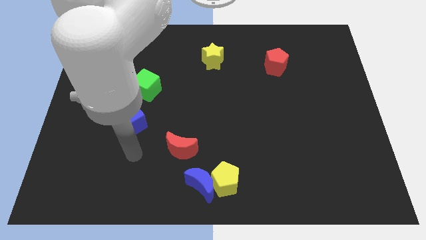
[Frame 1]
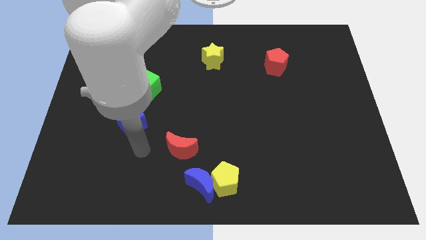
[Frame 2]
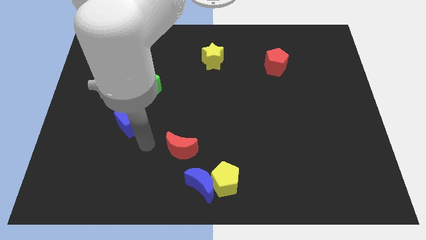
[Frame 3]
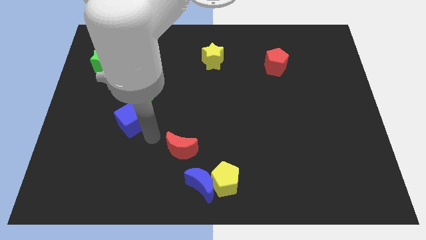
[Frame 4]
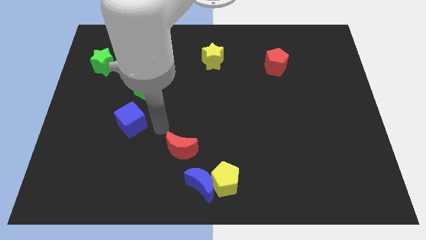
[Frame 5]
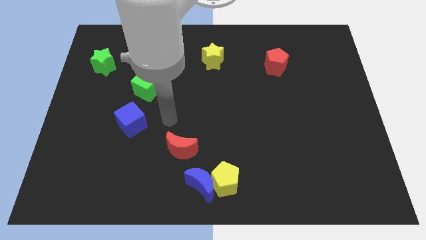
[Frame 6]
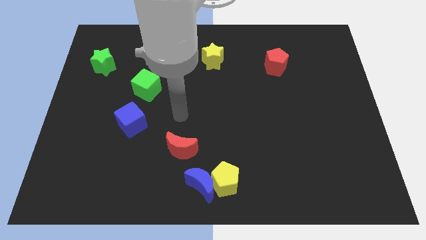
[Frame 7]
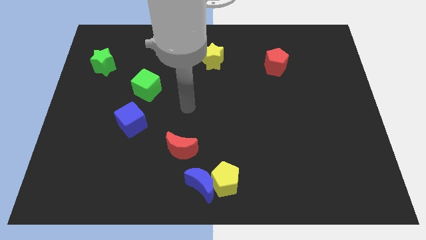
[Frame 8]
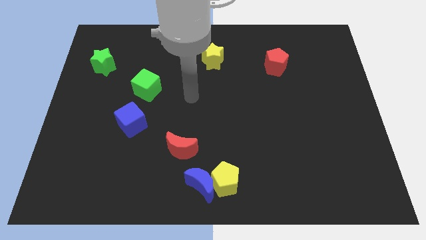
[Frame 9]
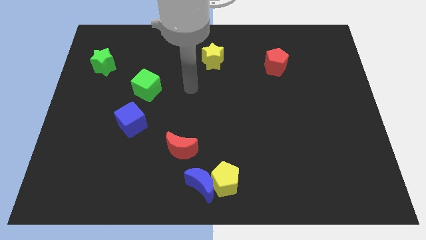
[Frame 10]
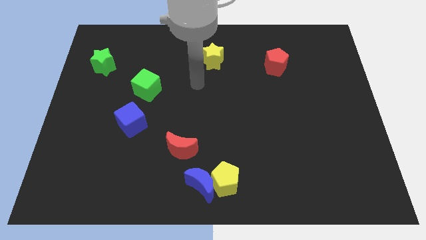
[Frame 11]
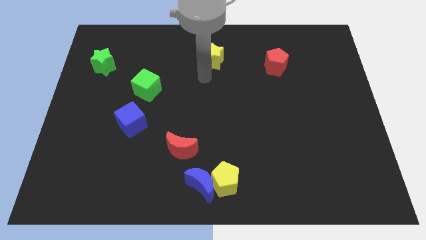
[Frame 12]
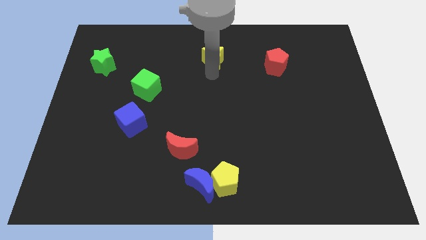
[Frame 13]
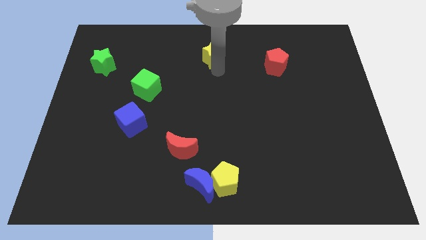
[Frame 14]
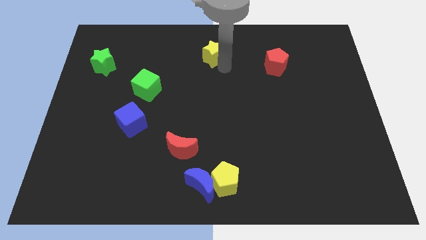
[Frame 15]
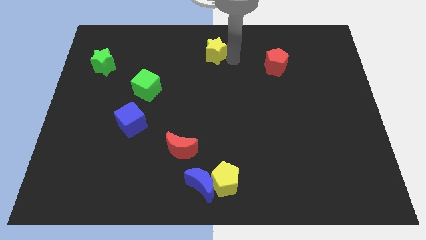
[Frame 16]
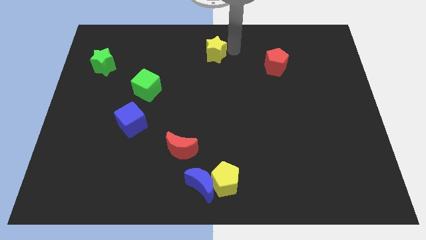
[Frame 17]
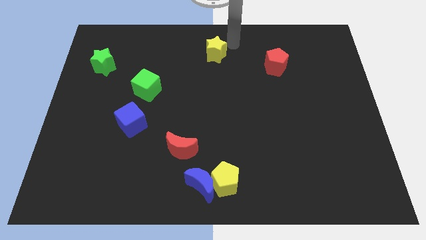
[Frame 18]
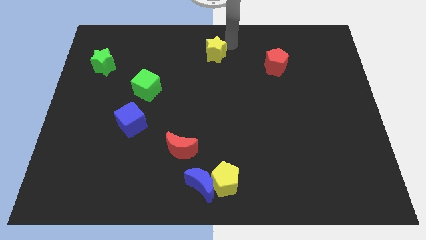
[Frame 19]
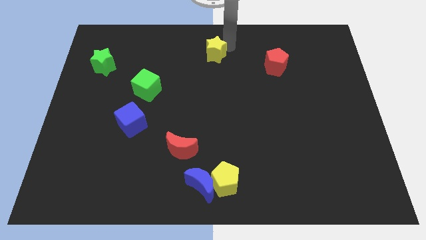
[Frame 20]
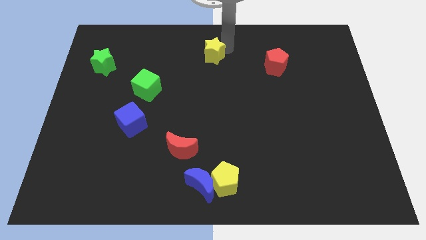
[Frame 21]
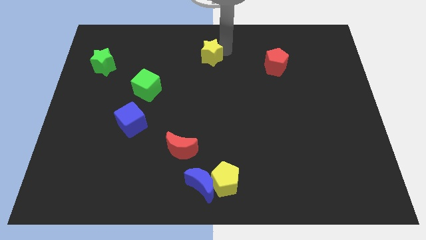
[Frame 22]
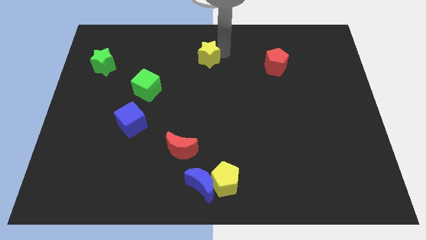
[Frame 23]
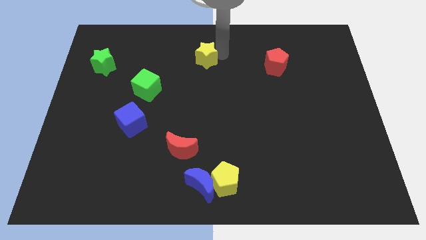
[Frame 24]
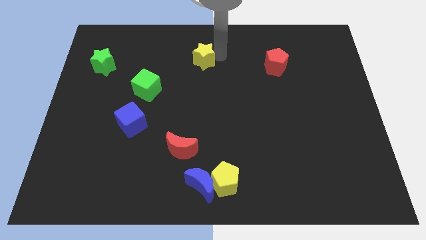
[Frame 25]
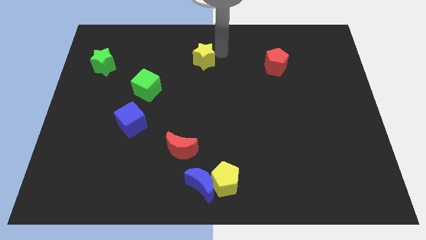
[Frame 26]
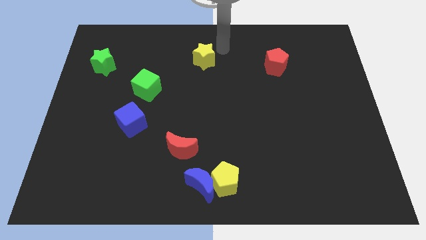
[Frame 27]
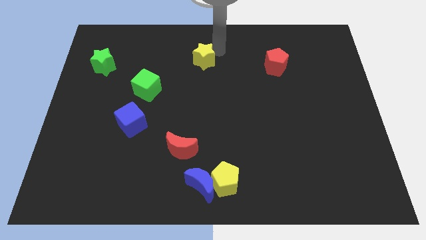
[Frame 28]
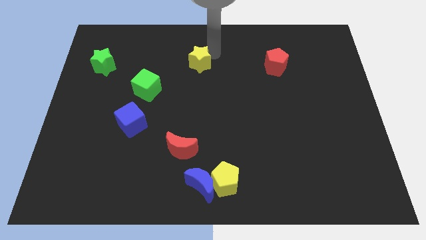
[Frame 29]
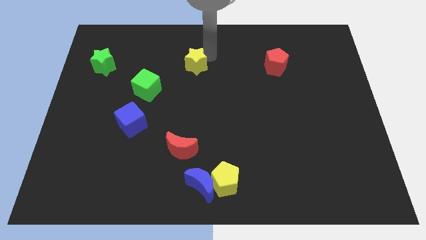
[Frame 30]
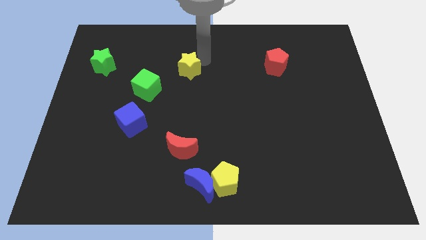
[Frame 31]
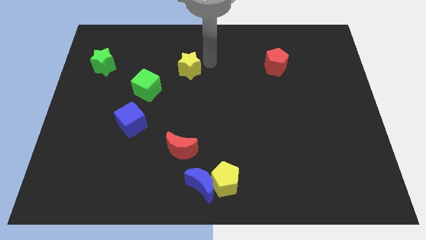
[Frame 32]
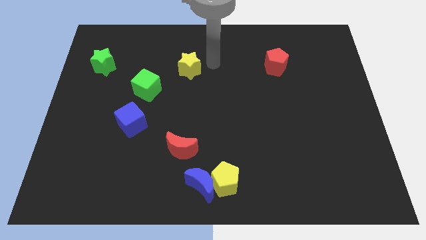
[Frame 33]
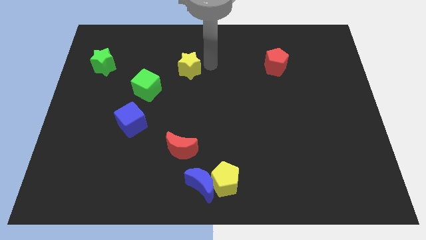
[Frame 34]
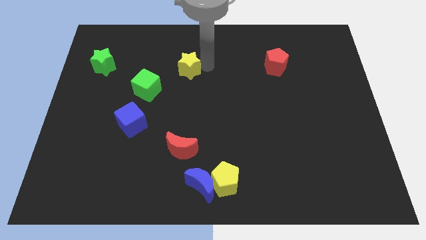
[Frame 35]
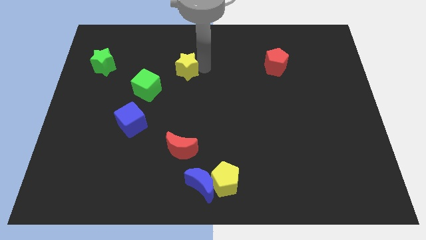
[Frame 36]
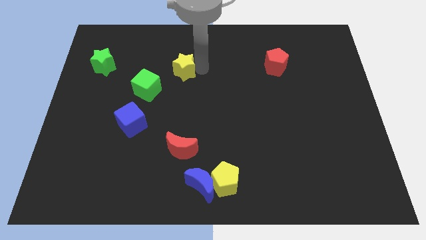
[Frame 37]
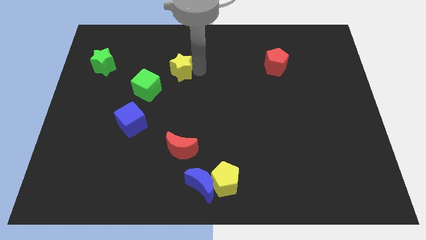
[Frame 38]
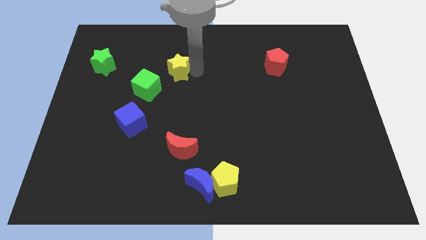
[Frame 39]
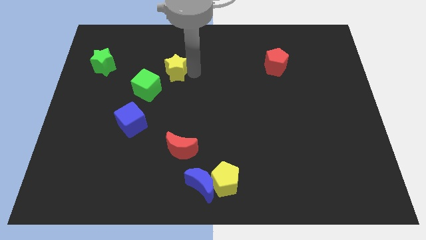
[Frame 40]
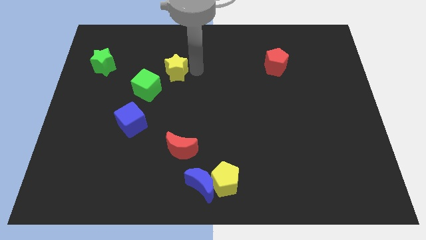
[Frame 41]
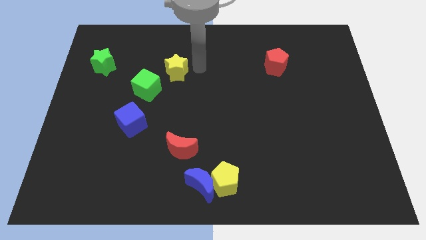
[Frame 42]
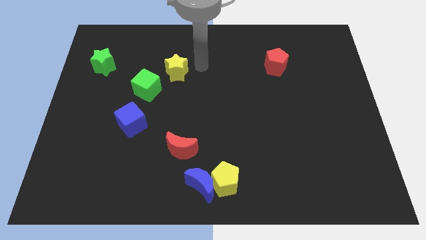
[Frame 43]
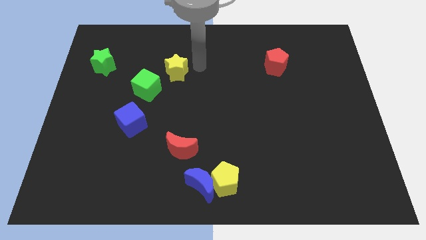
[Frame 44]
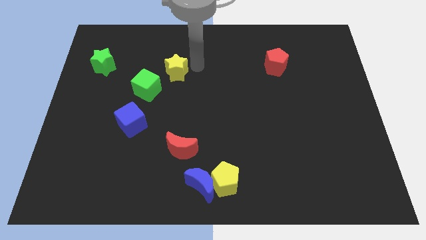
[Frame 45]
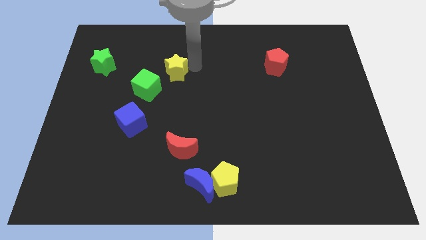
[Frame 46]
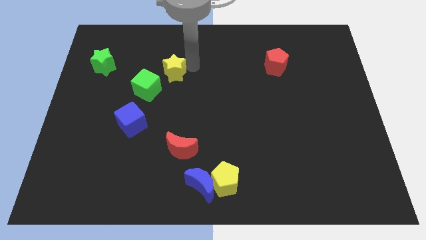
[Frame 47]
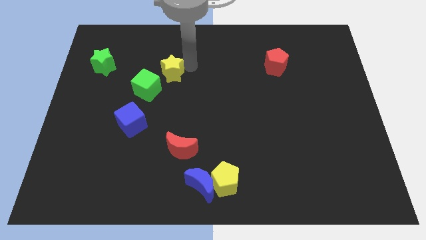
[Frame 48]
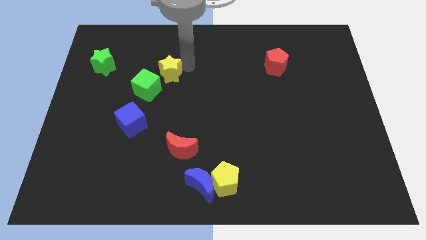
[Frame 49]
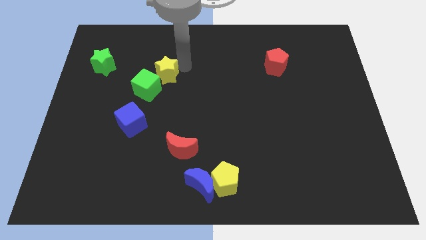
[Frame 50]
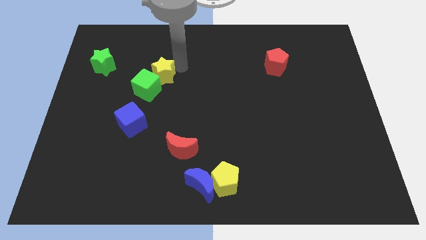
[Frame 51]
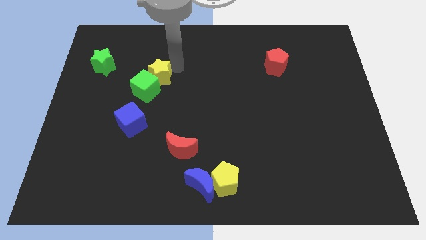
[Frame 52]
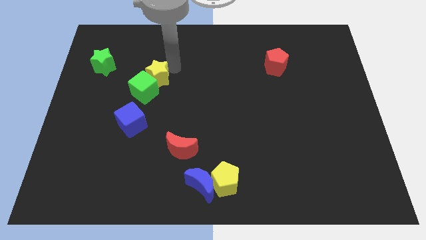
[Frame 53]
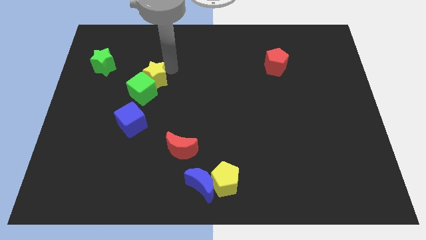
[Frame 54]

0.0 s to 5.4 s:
slide the yellow star above the blue cube

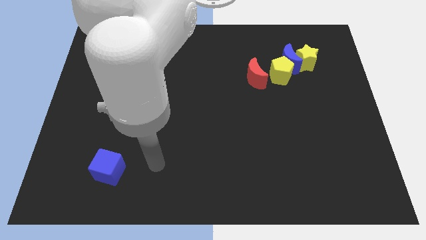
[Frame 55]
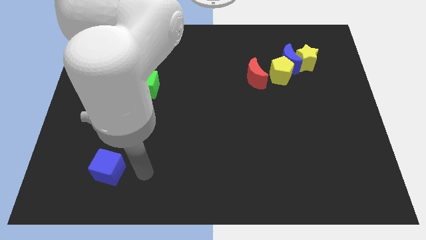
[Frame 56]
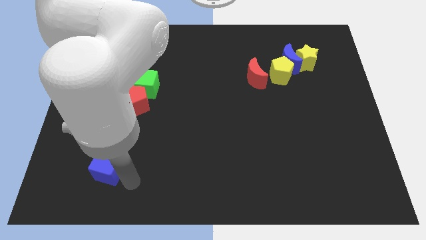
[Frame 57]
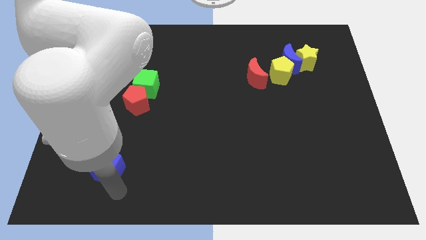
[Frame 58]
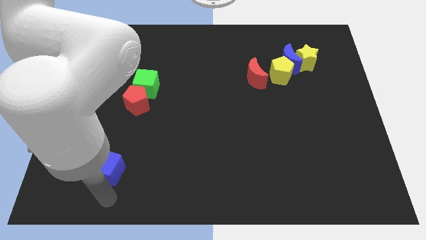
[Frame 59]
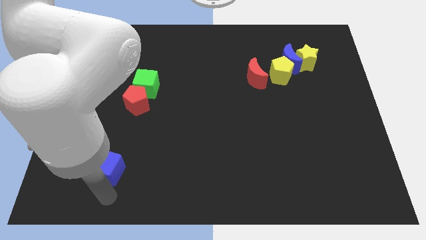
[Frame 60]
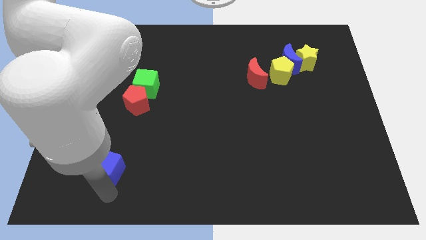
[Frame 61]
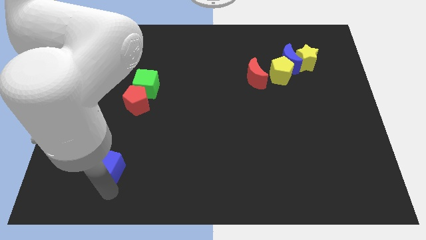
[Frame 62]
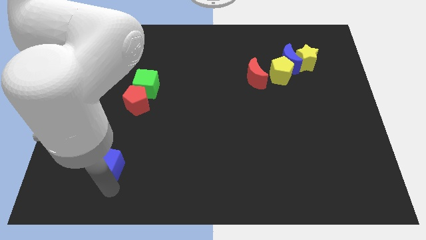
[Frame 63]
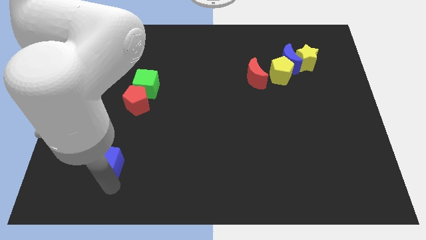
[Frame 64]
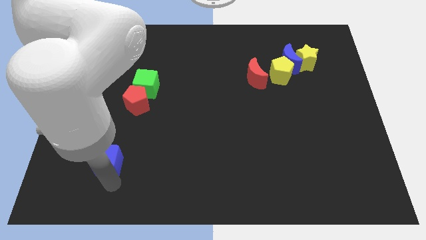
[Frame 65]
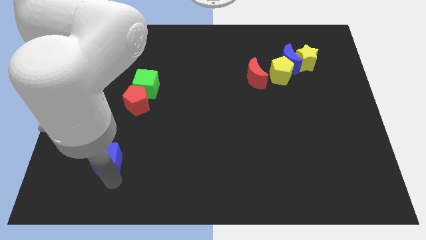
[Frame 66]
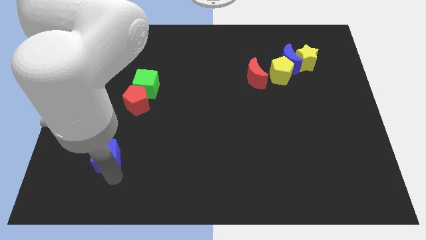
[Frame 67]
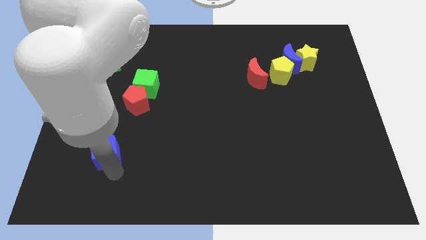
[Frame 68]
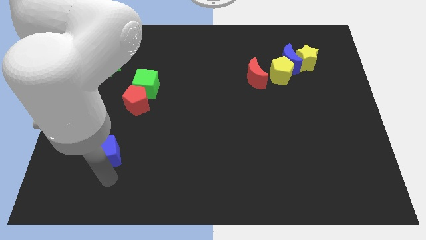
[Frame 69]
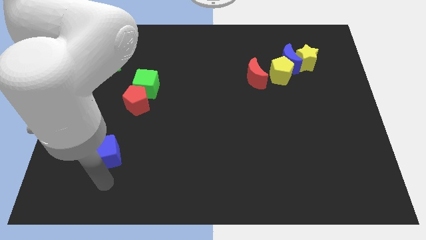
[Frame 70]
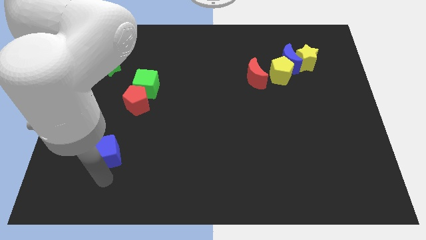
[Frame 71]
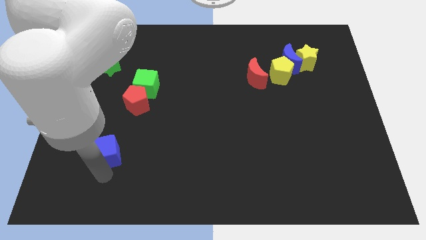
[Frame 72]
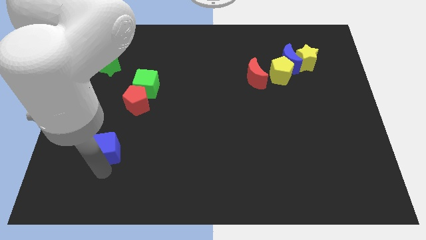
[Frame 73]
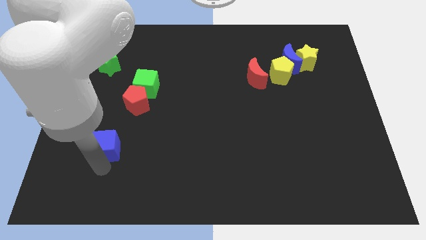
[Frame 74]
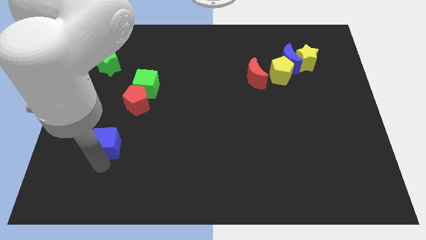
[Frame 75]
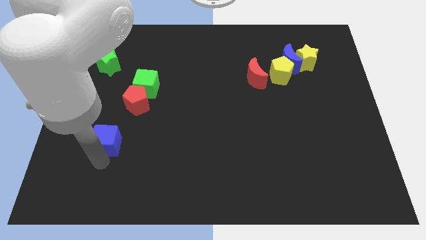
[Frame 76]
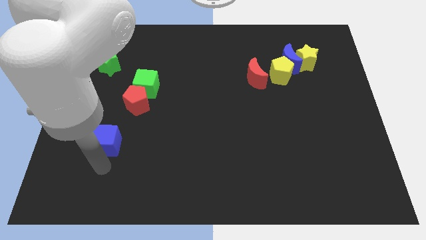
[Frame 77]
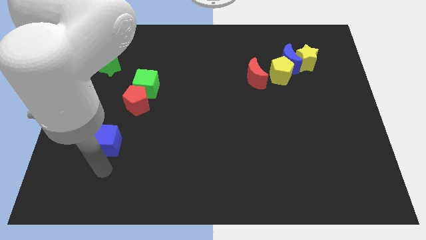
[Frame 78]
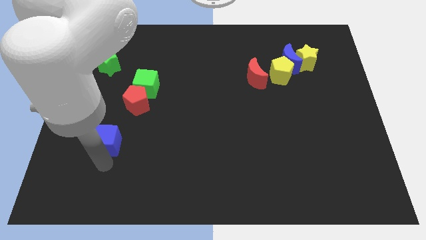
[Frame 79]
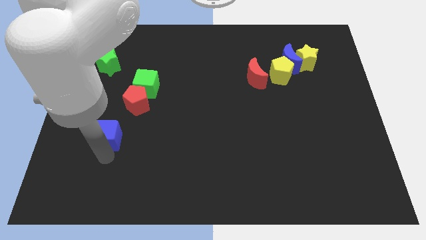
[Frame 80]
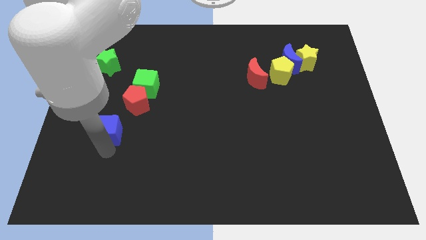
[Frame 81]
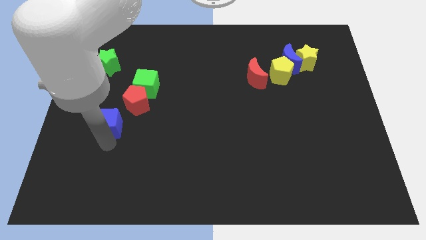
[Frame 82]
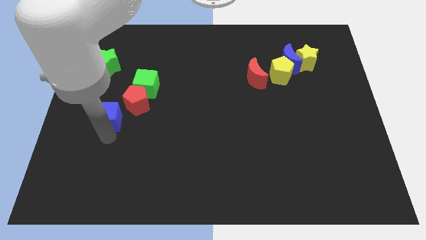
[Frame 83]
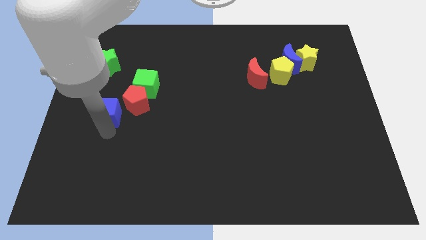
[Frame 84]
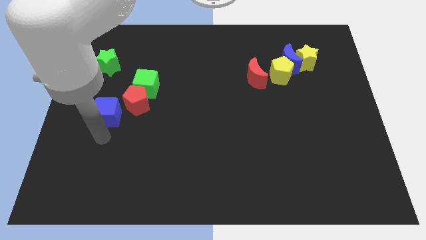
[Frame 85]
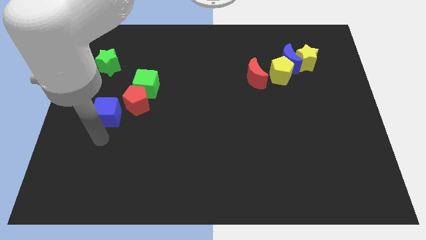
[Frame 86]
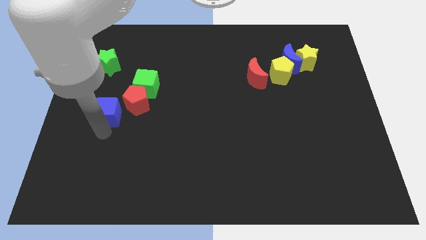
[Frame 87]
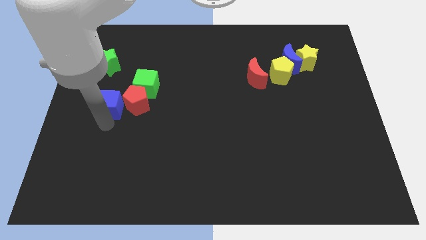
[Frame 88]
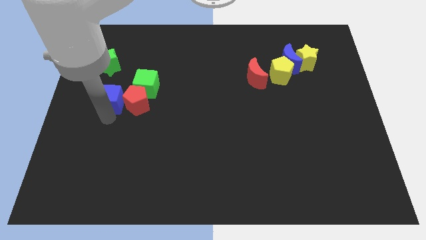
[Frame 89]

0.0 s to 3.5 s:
push the blue cube to the top left side of the red pentagon
